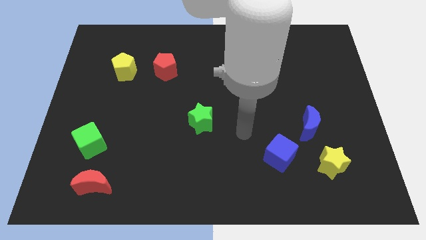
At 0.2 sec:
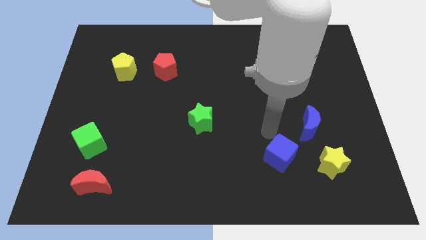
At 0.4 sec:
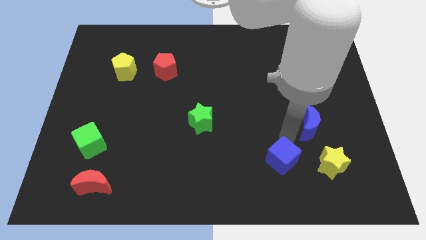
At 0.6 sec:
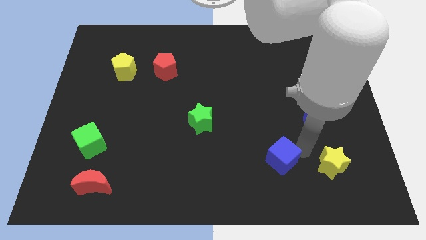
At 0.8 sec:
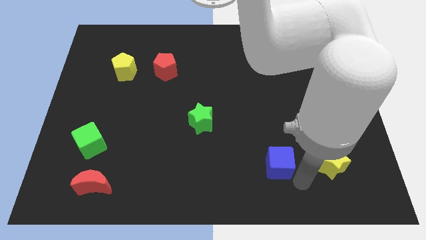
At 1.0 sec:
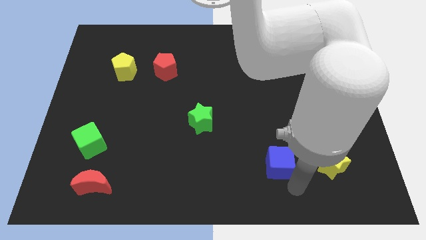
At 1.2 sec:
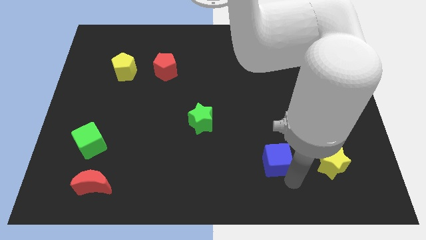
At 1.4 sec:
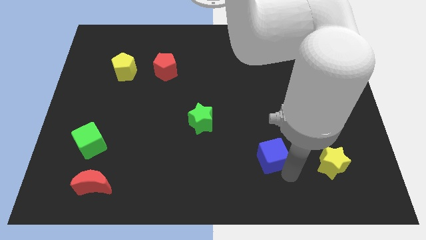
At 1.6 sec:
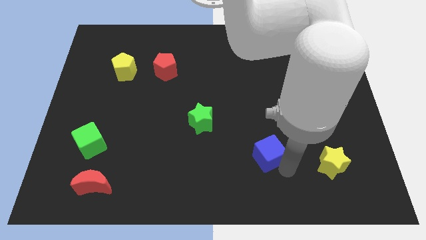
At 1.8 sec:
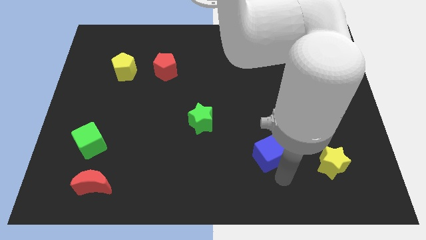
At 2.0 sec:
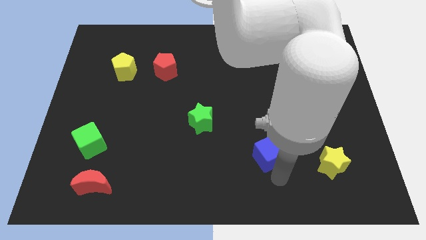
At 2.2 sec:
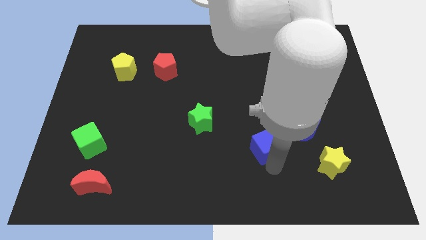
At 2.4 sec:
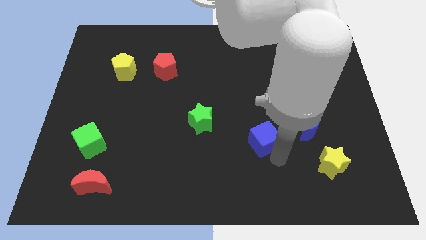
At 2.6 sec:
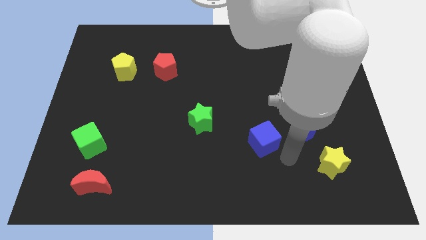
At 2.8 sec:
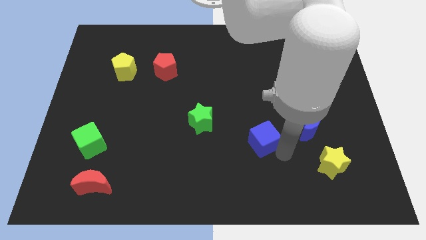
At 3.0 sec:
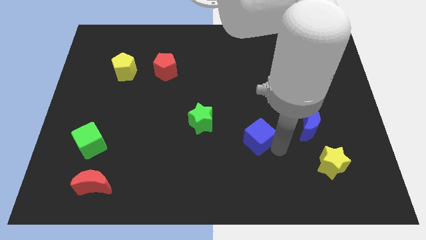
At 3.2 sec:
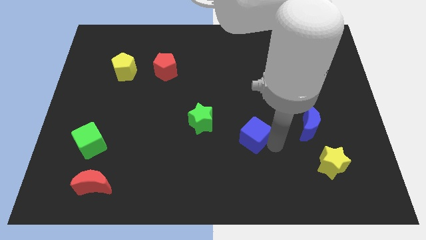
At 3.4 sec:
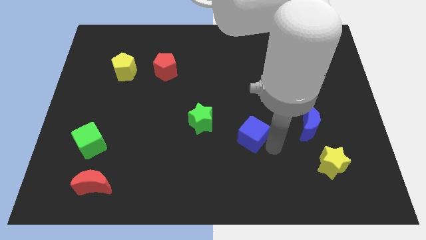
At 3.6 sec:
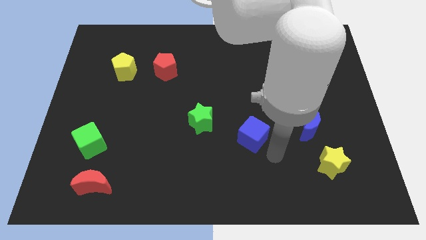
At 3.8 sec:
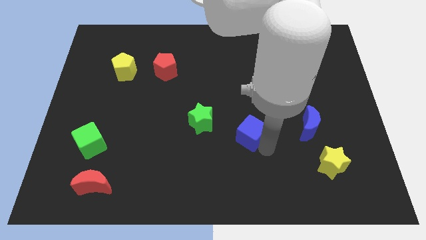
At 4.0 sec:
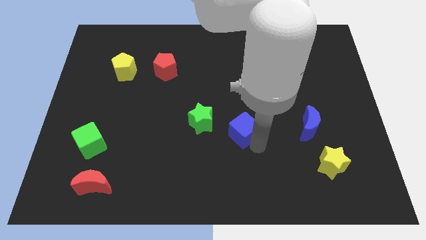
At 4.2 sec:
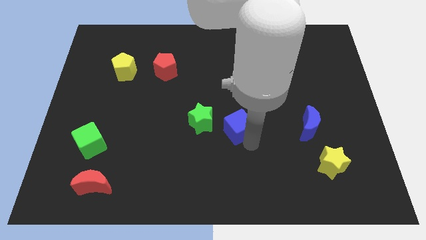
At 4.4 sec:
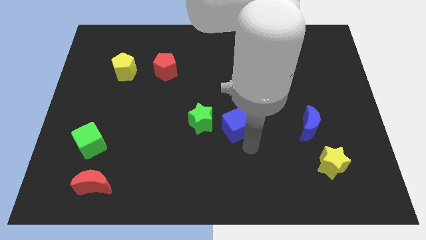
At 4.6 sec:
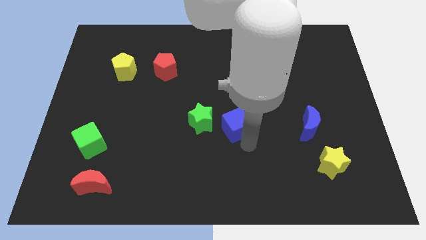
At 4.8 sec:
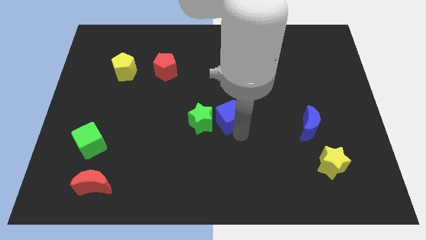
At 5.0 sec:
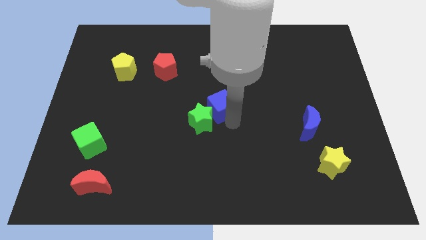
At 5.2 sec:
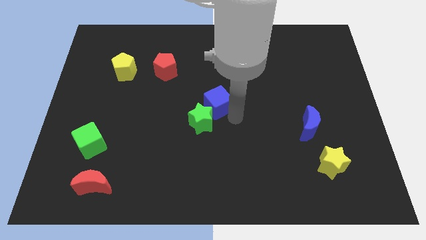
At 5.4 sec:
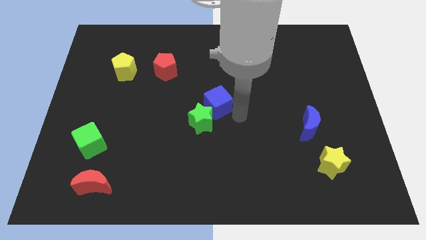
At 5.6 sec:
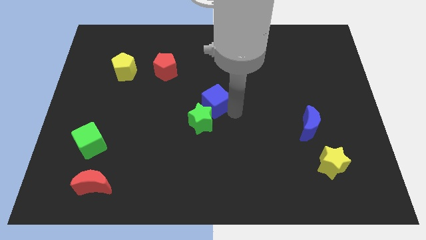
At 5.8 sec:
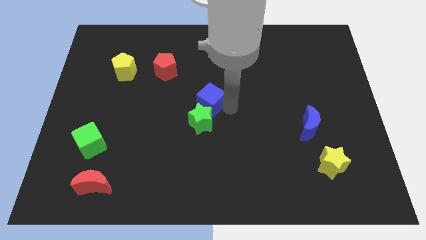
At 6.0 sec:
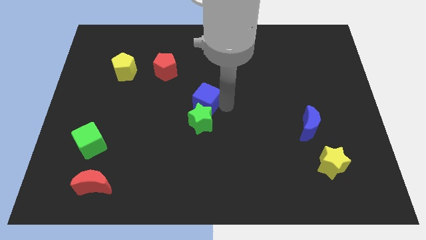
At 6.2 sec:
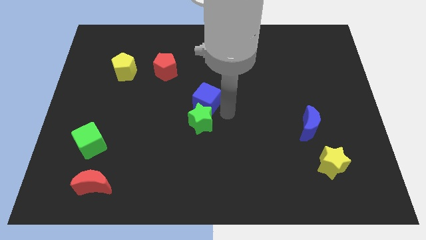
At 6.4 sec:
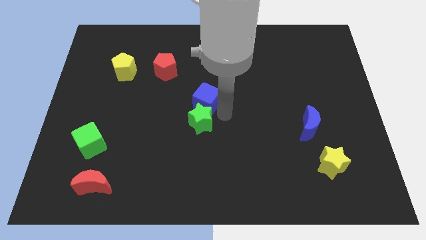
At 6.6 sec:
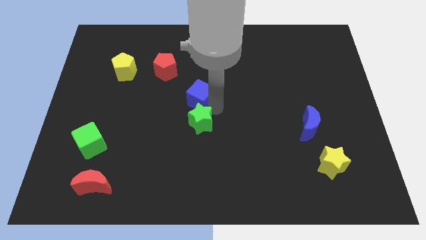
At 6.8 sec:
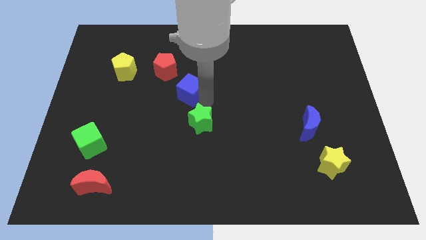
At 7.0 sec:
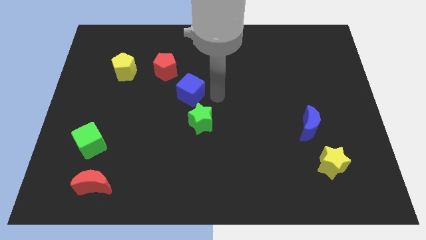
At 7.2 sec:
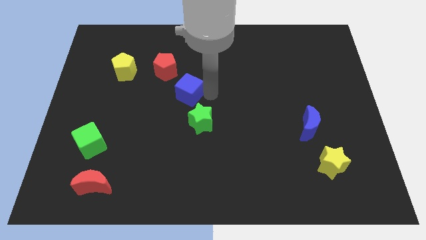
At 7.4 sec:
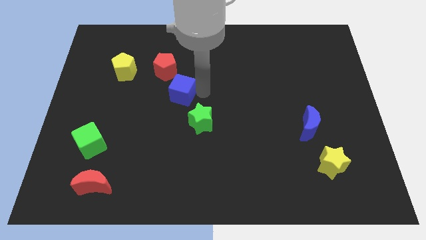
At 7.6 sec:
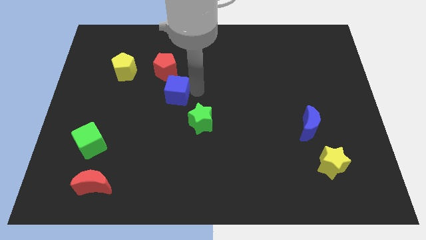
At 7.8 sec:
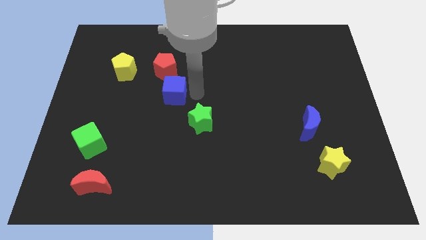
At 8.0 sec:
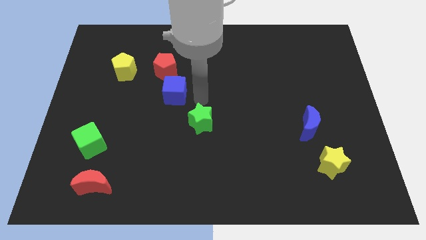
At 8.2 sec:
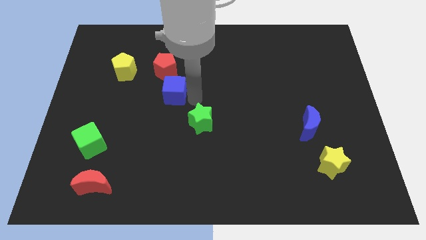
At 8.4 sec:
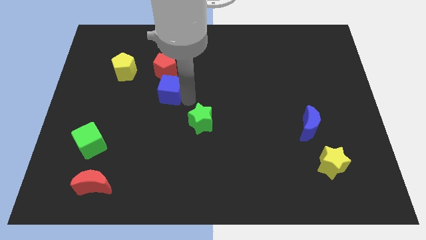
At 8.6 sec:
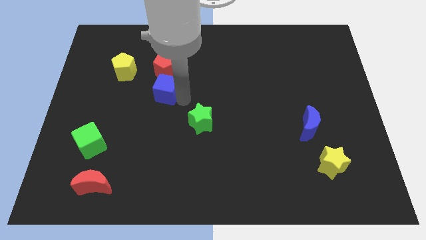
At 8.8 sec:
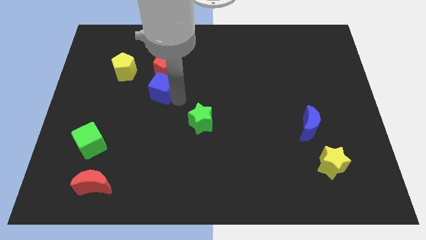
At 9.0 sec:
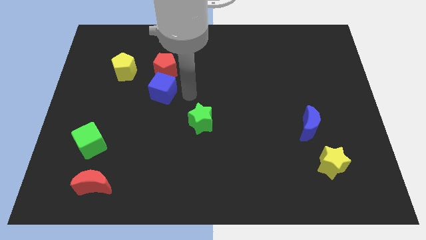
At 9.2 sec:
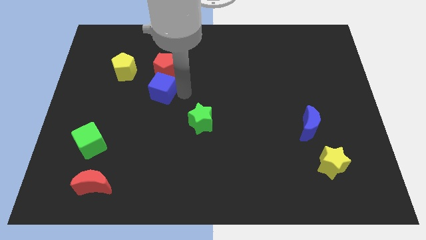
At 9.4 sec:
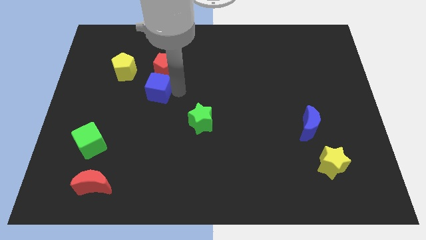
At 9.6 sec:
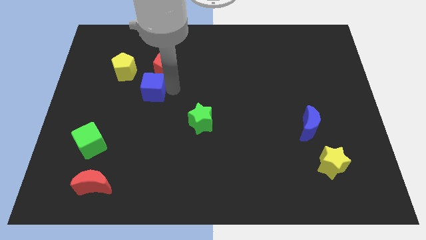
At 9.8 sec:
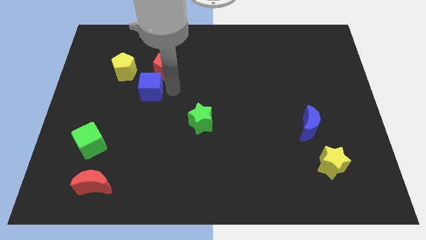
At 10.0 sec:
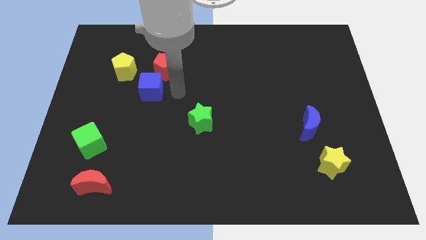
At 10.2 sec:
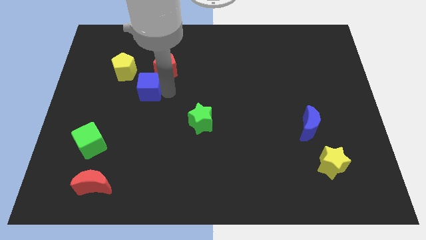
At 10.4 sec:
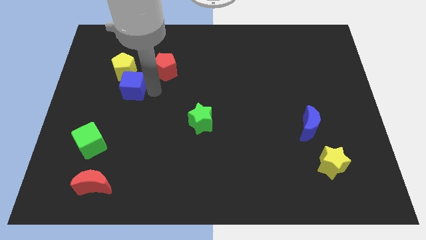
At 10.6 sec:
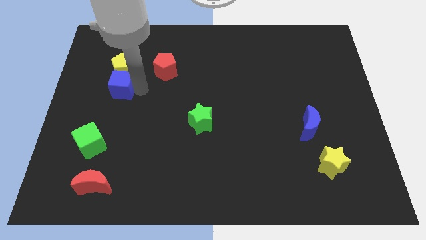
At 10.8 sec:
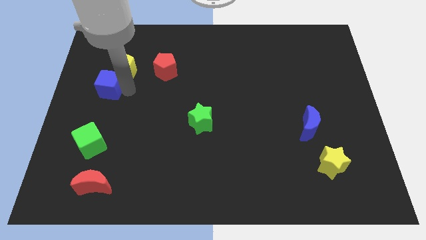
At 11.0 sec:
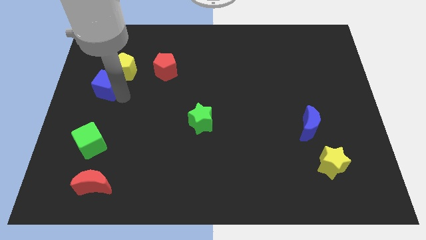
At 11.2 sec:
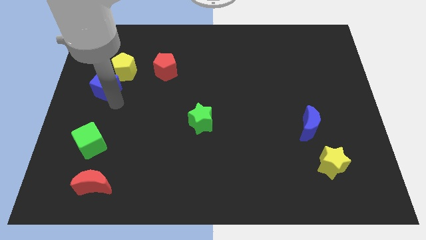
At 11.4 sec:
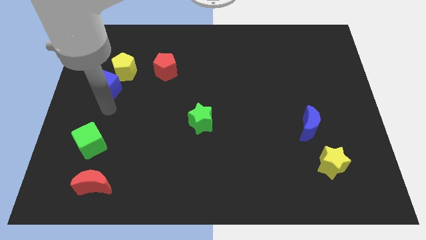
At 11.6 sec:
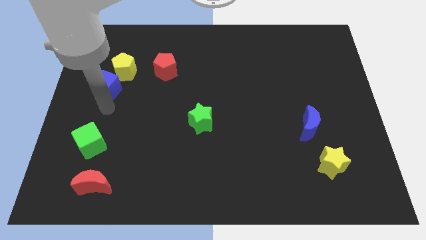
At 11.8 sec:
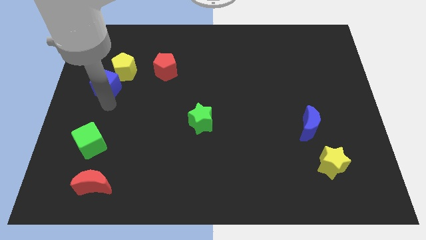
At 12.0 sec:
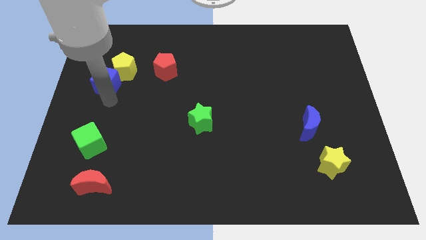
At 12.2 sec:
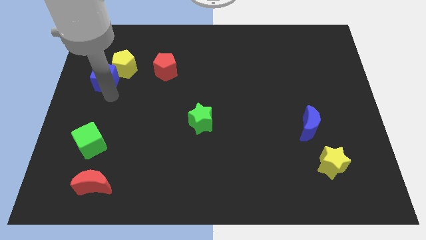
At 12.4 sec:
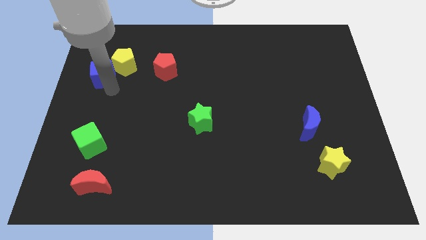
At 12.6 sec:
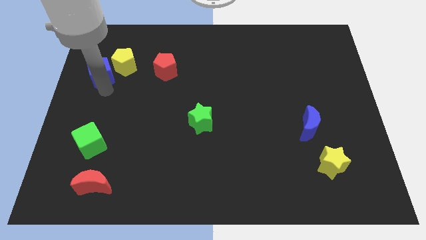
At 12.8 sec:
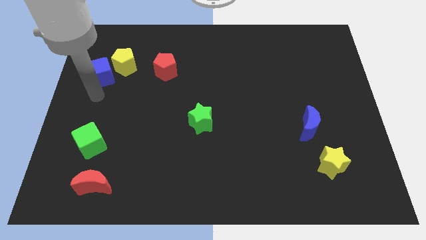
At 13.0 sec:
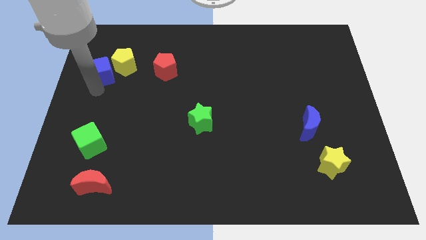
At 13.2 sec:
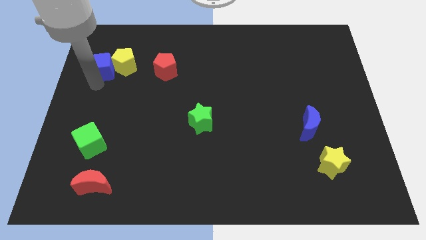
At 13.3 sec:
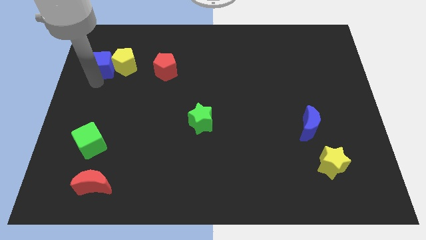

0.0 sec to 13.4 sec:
move the blue cube to the top left side of the yellow pentagon

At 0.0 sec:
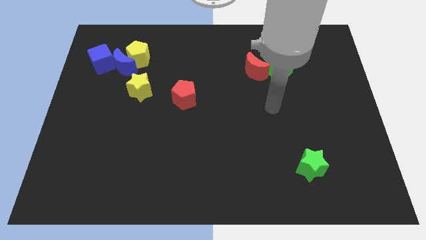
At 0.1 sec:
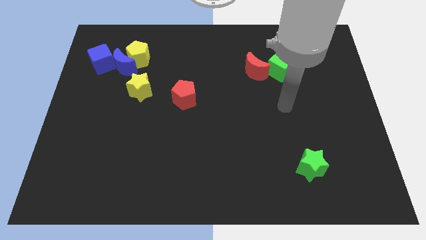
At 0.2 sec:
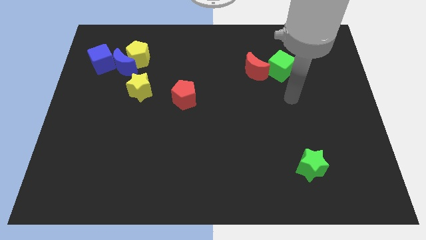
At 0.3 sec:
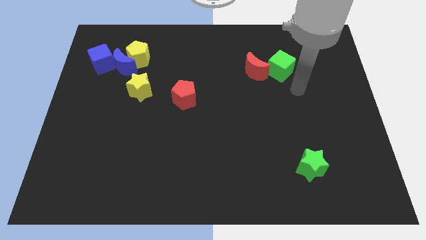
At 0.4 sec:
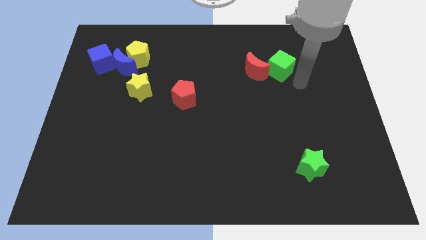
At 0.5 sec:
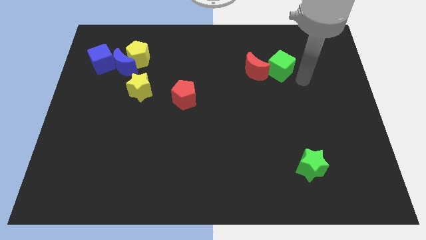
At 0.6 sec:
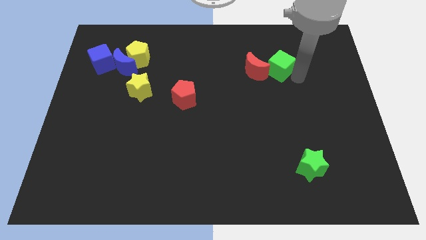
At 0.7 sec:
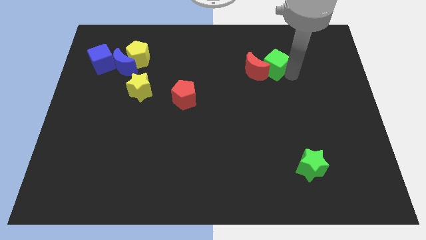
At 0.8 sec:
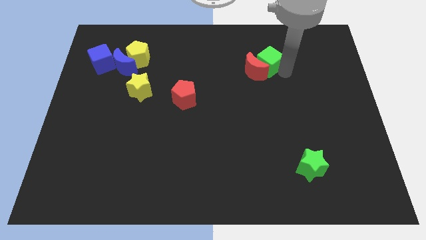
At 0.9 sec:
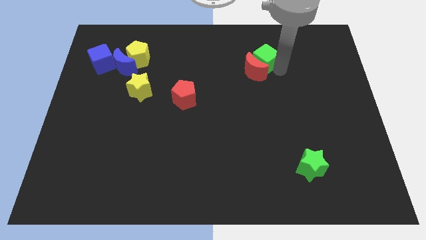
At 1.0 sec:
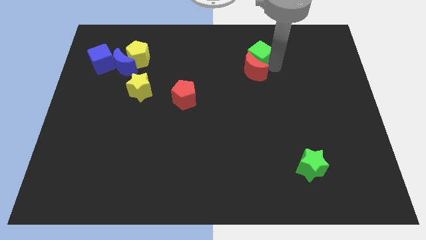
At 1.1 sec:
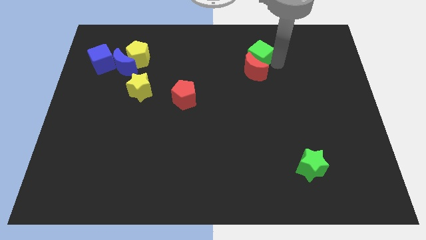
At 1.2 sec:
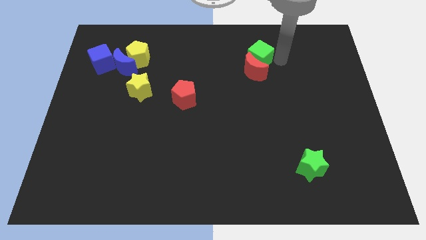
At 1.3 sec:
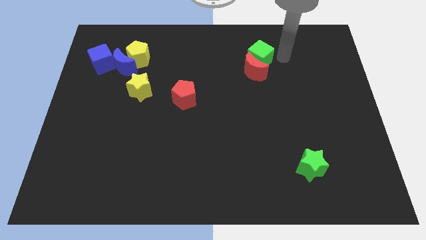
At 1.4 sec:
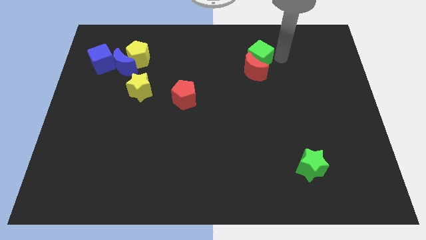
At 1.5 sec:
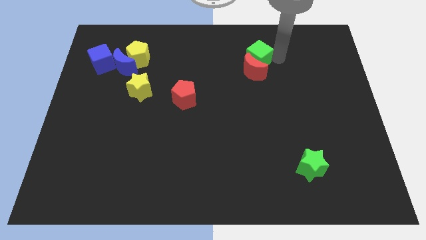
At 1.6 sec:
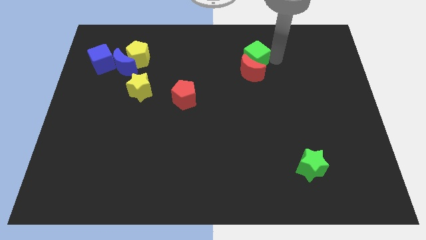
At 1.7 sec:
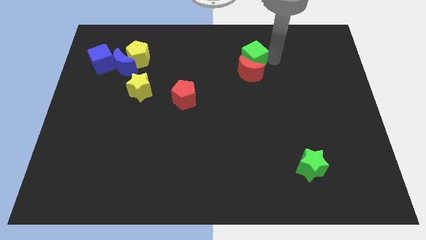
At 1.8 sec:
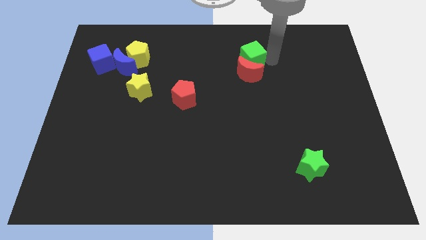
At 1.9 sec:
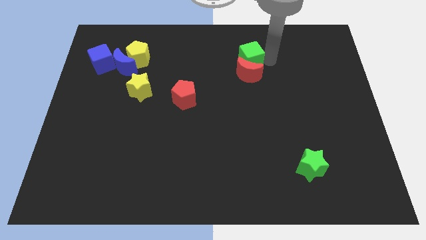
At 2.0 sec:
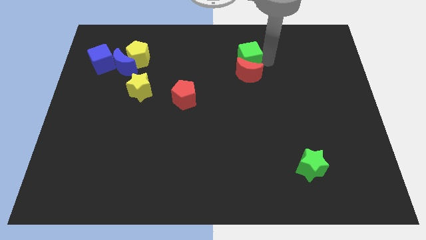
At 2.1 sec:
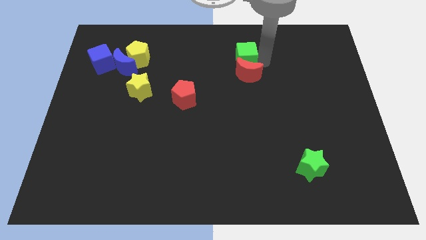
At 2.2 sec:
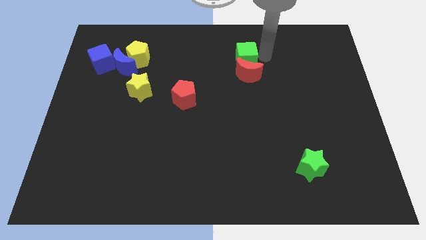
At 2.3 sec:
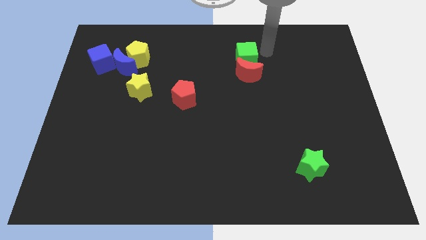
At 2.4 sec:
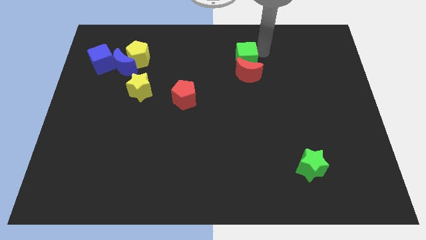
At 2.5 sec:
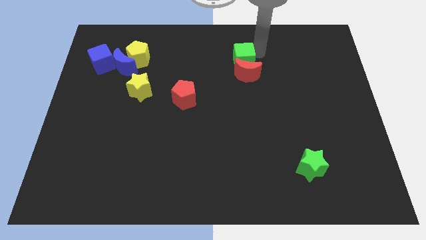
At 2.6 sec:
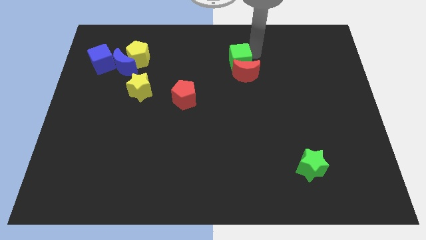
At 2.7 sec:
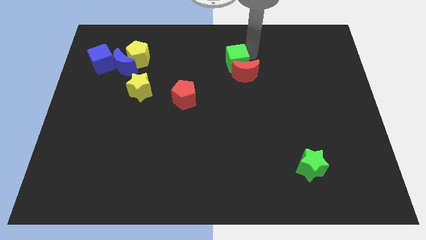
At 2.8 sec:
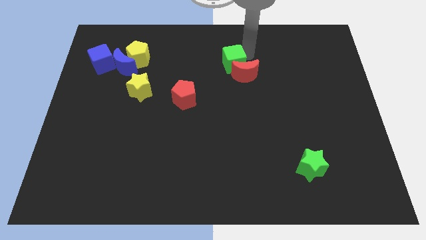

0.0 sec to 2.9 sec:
slide the green cube just left of the red moon
